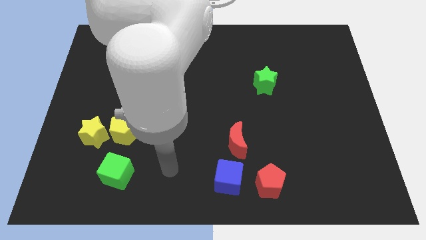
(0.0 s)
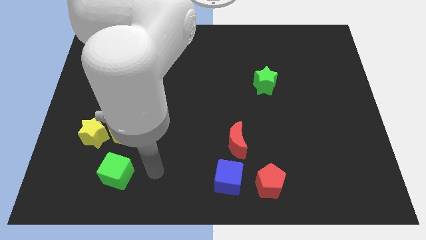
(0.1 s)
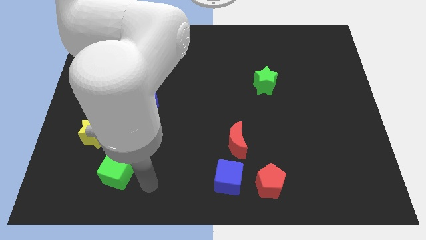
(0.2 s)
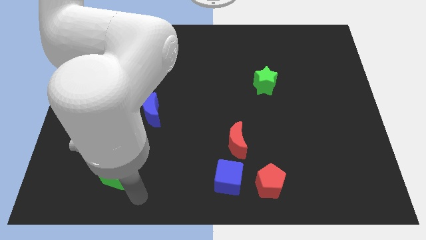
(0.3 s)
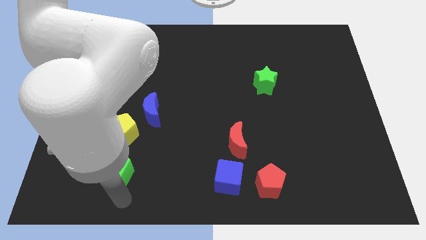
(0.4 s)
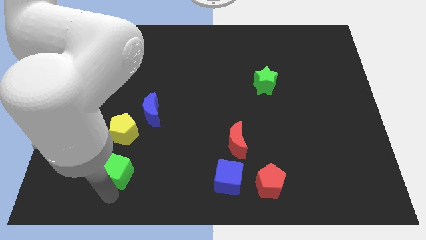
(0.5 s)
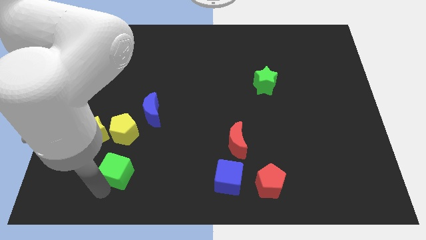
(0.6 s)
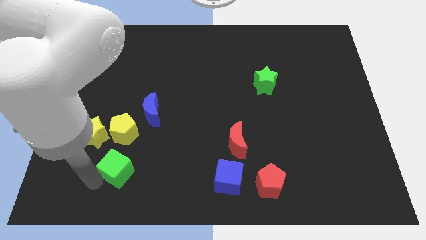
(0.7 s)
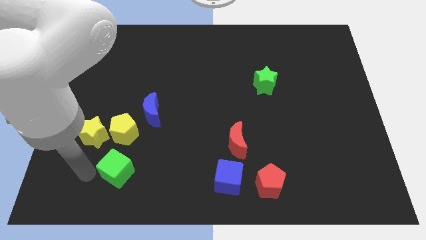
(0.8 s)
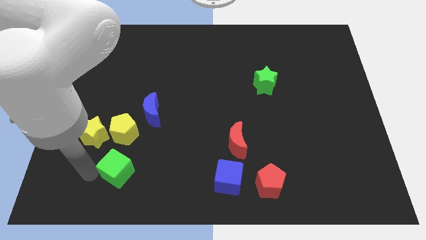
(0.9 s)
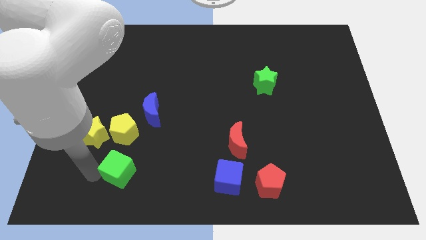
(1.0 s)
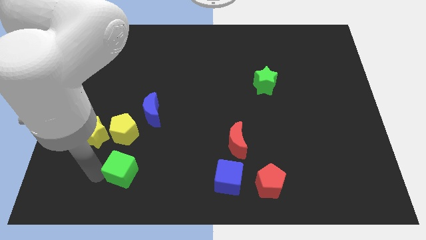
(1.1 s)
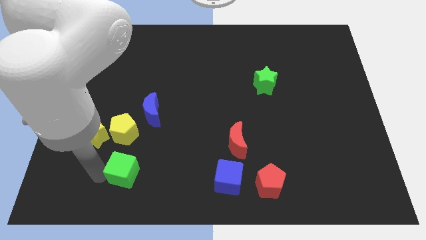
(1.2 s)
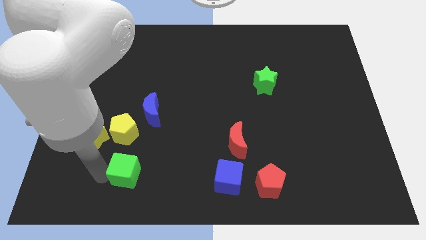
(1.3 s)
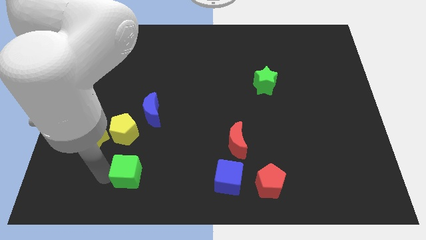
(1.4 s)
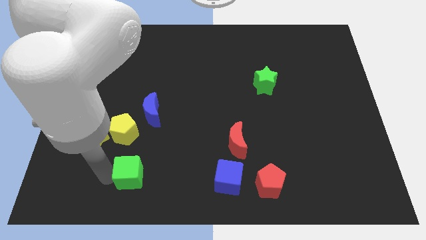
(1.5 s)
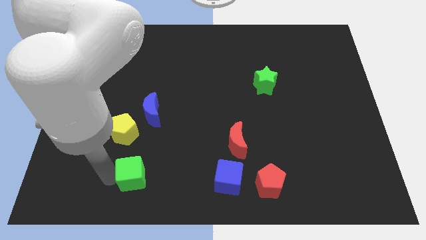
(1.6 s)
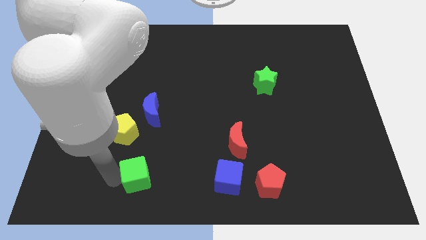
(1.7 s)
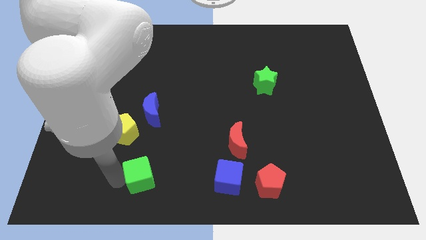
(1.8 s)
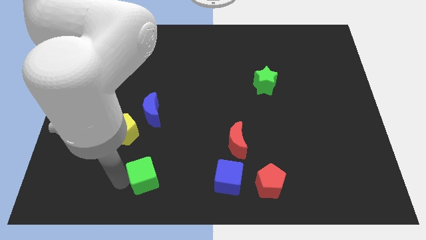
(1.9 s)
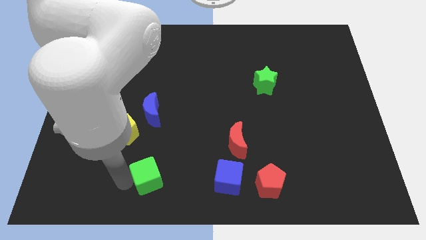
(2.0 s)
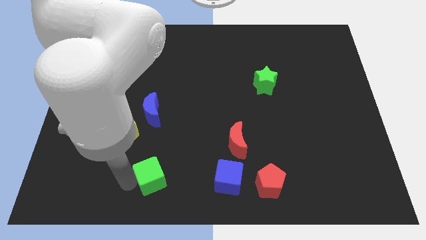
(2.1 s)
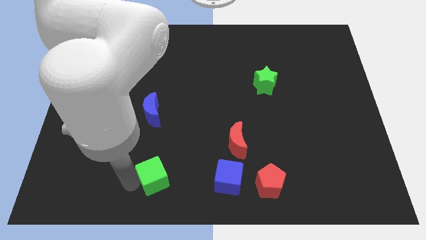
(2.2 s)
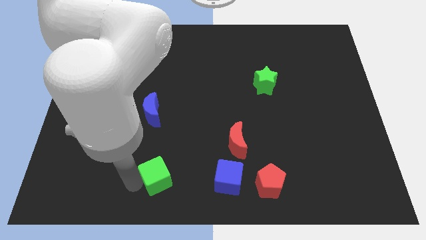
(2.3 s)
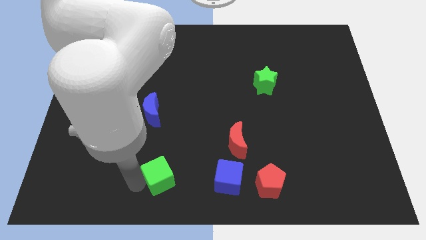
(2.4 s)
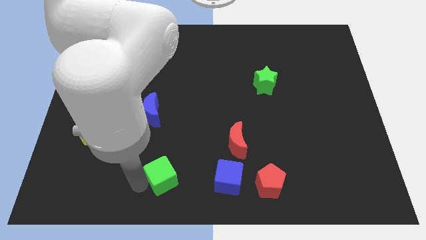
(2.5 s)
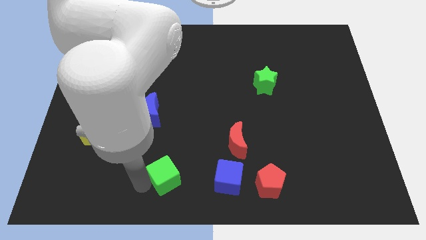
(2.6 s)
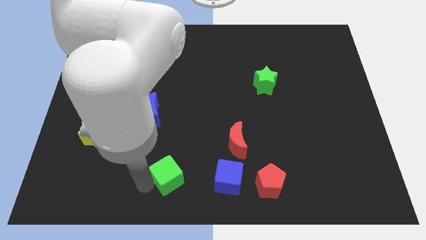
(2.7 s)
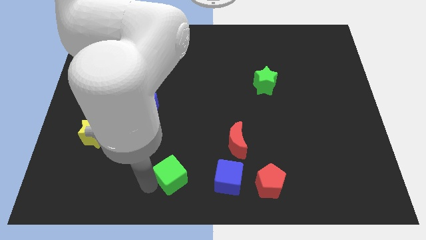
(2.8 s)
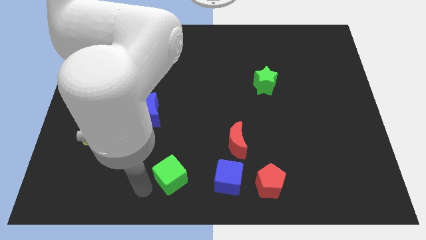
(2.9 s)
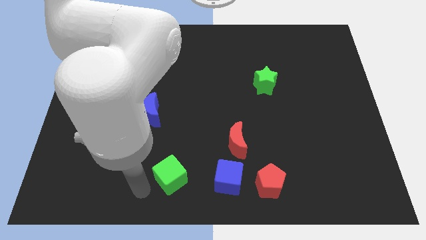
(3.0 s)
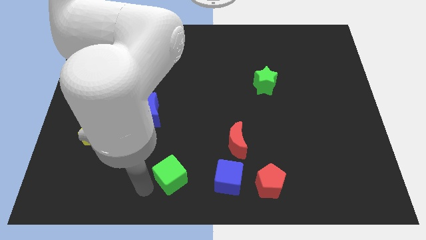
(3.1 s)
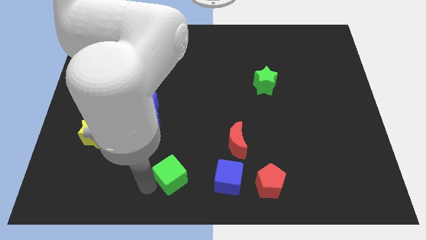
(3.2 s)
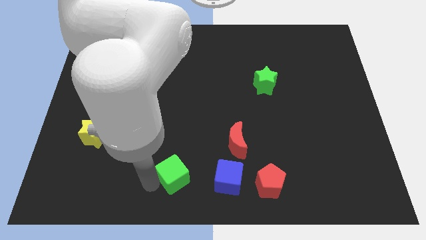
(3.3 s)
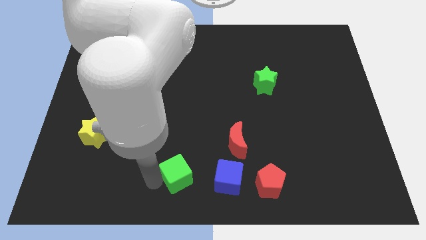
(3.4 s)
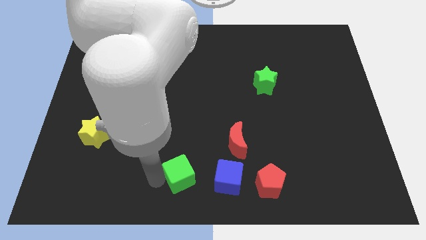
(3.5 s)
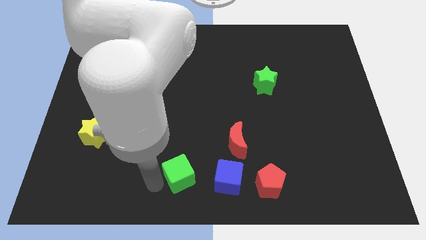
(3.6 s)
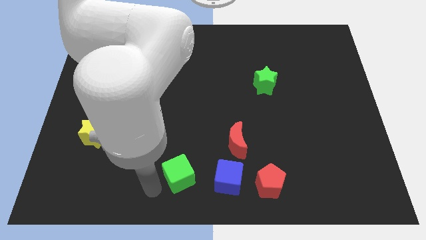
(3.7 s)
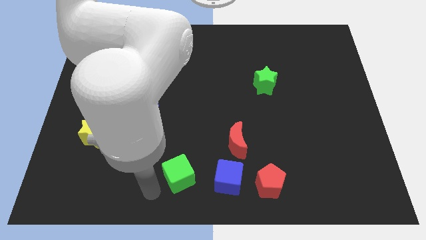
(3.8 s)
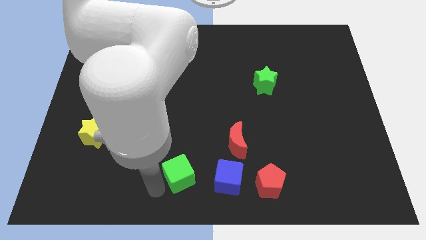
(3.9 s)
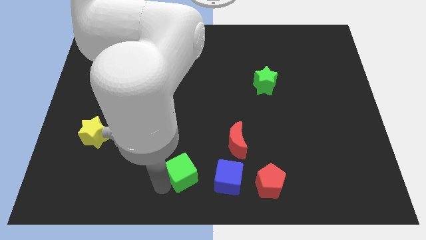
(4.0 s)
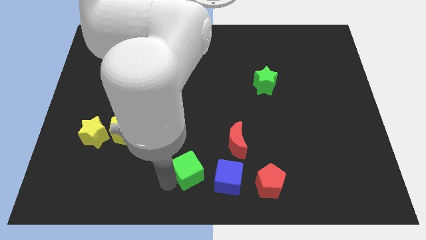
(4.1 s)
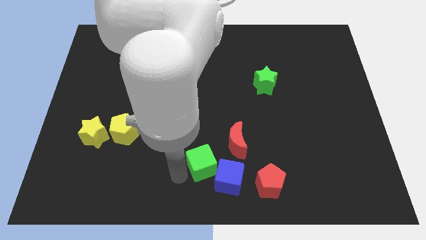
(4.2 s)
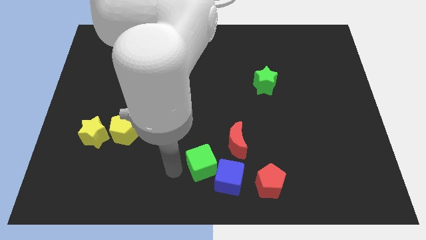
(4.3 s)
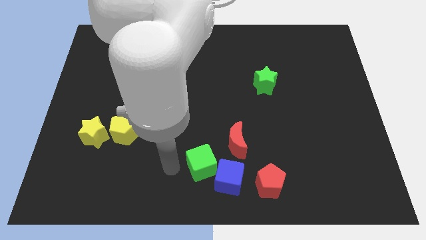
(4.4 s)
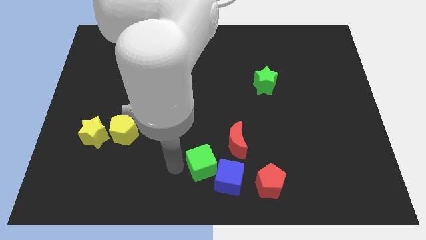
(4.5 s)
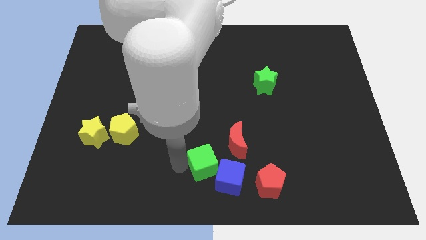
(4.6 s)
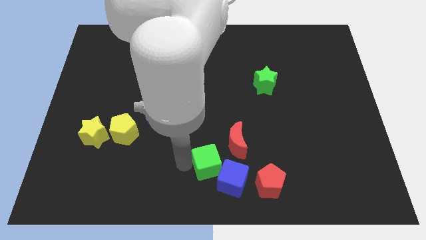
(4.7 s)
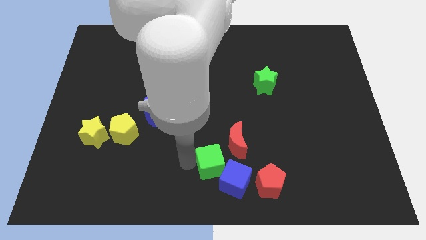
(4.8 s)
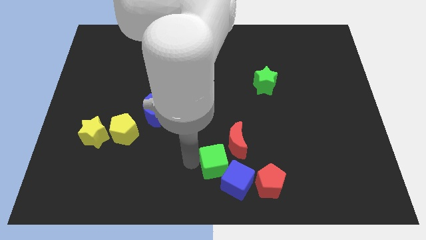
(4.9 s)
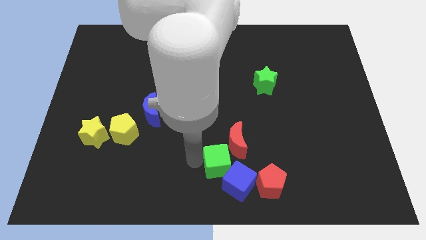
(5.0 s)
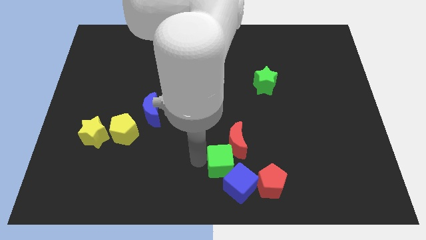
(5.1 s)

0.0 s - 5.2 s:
put the green cube to the top left side of the red pentagon
